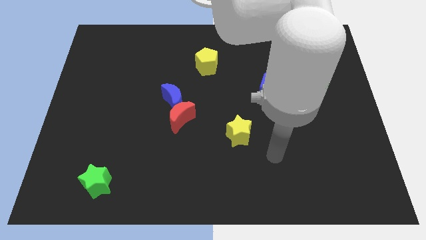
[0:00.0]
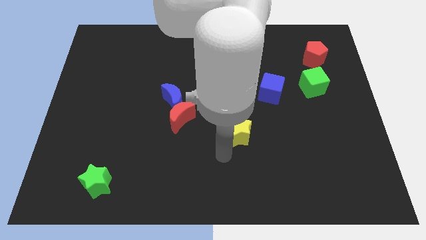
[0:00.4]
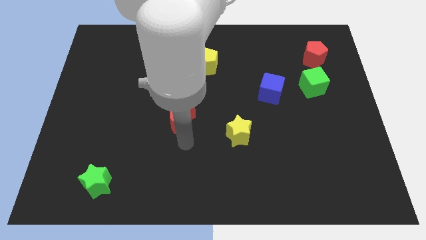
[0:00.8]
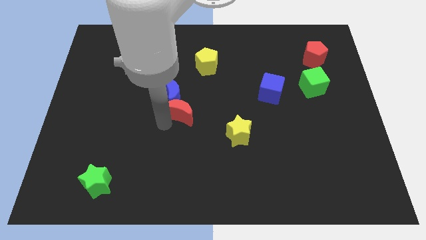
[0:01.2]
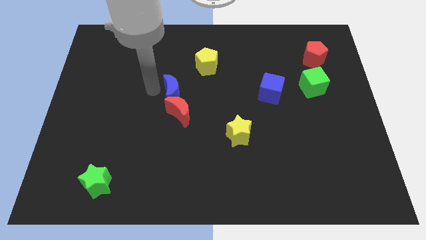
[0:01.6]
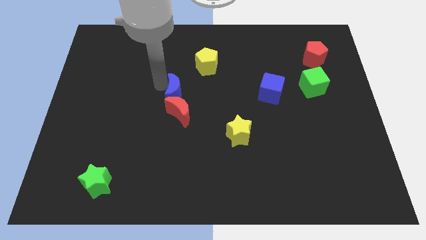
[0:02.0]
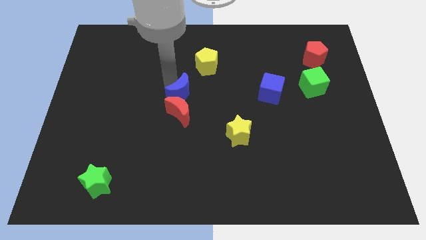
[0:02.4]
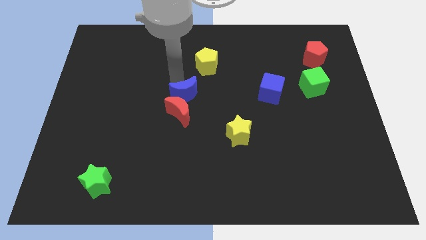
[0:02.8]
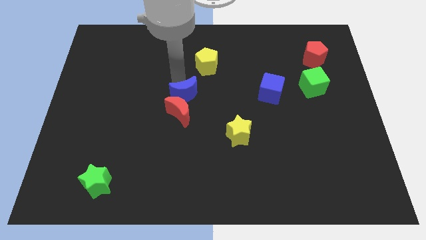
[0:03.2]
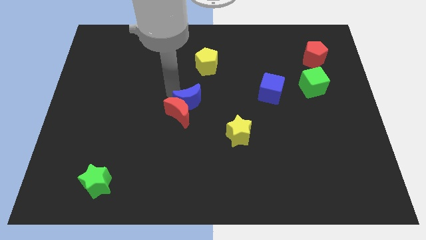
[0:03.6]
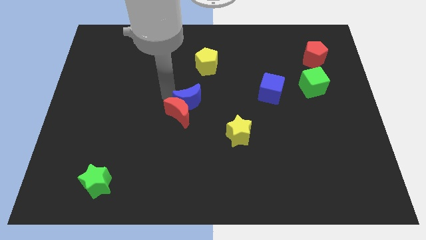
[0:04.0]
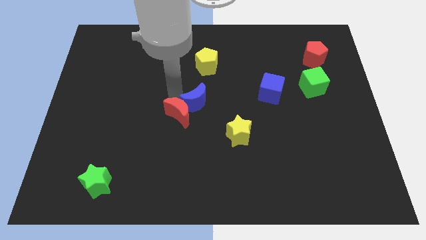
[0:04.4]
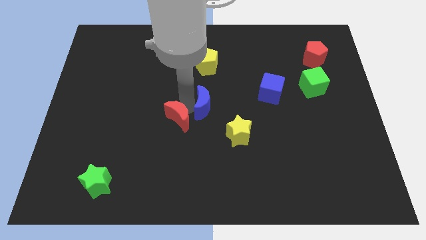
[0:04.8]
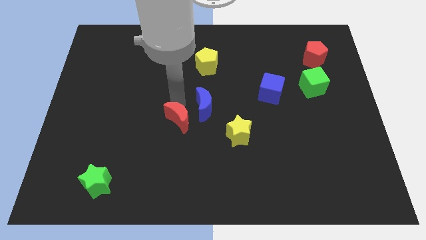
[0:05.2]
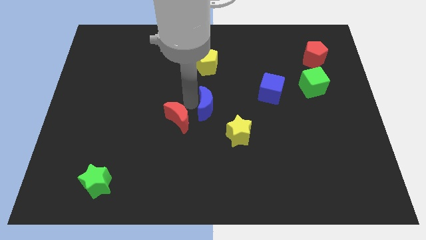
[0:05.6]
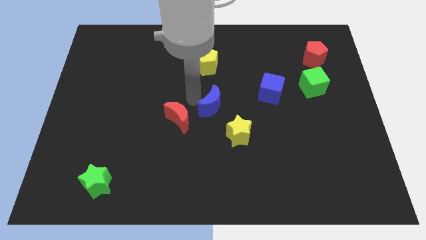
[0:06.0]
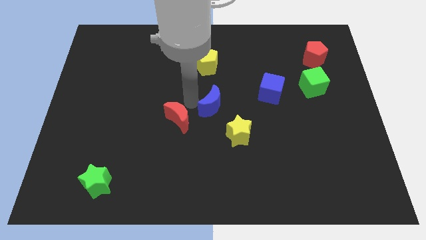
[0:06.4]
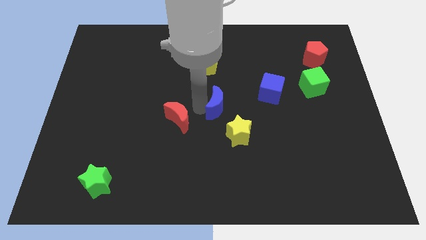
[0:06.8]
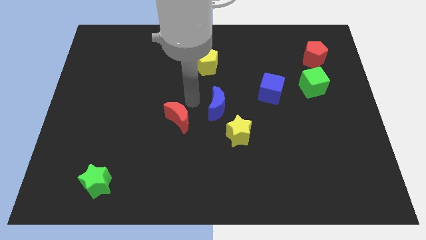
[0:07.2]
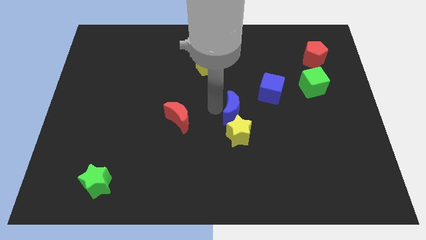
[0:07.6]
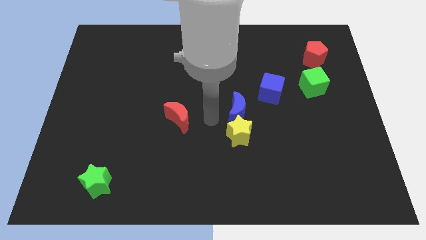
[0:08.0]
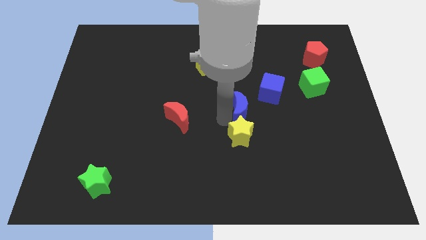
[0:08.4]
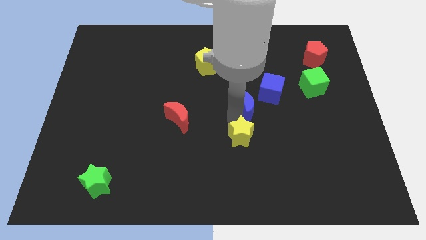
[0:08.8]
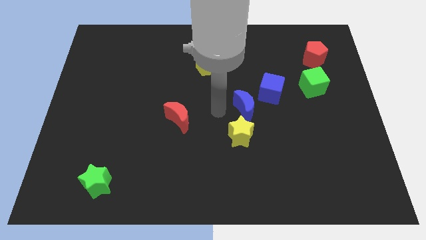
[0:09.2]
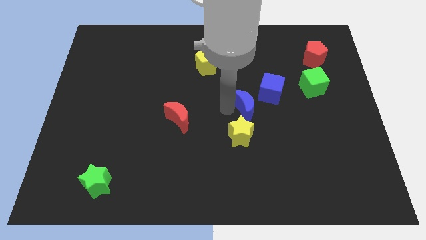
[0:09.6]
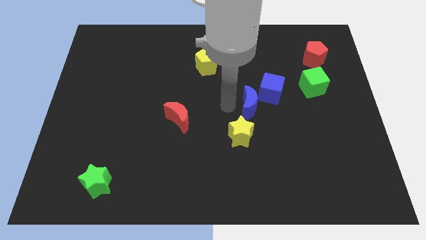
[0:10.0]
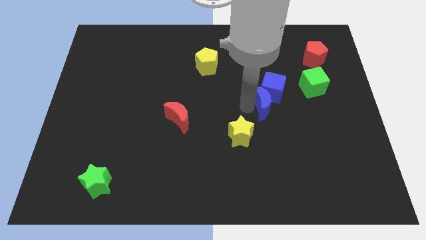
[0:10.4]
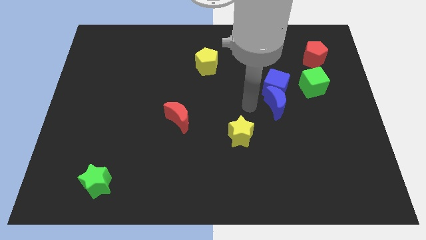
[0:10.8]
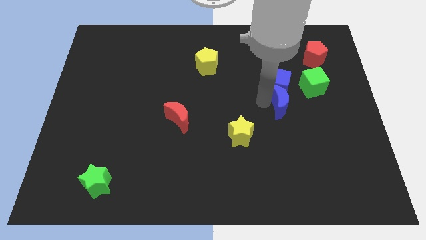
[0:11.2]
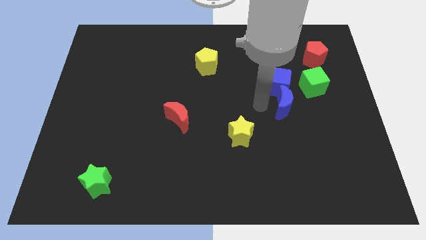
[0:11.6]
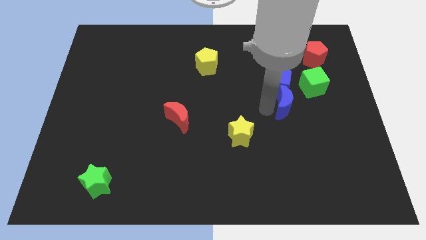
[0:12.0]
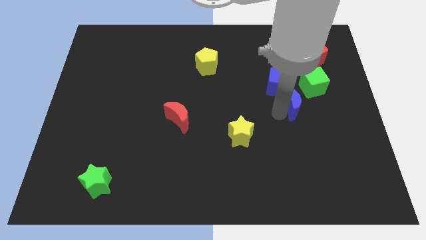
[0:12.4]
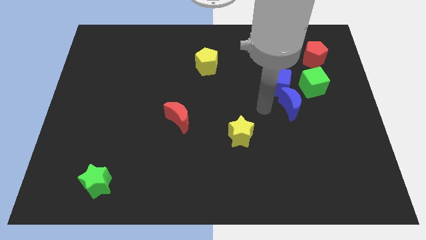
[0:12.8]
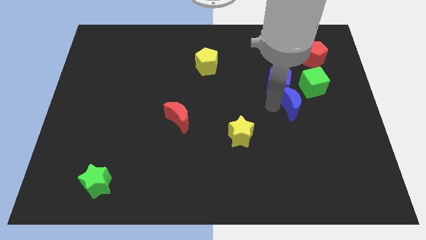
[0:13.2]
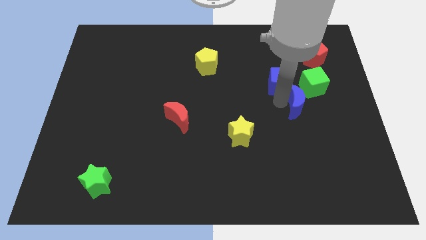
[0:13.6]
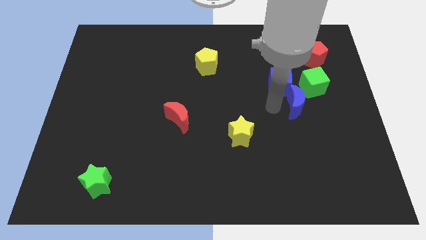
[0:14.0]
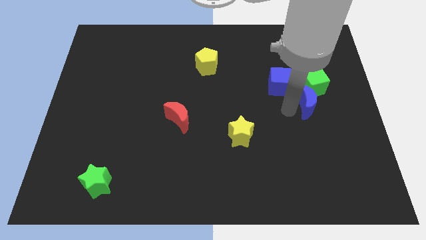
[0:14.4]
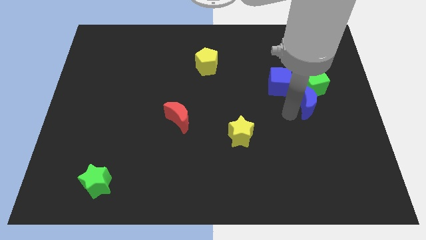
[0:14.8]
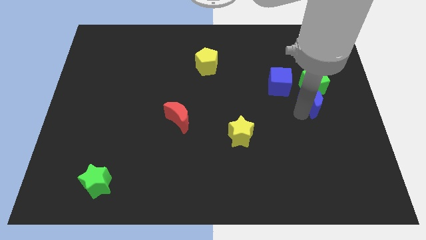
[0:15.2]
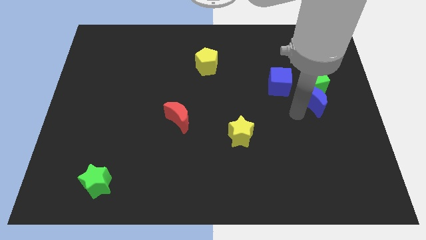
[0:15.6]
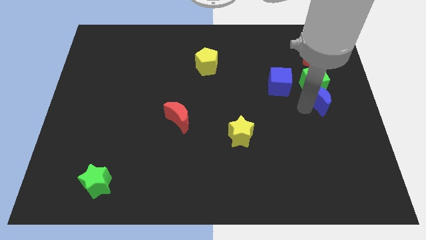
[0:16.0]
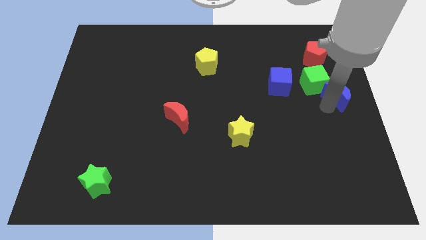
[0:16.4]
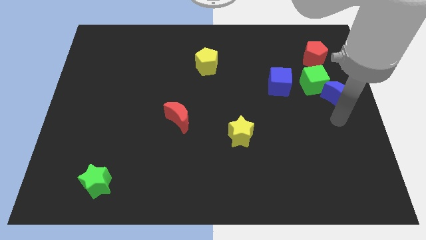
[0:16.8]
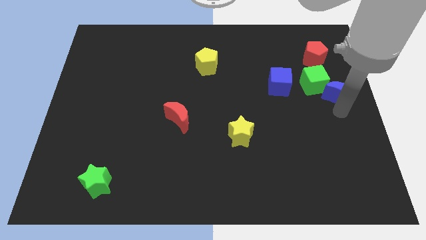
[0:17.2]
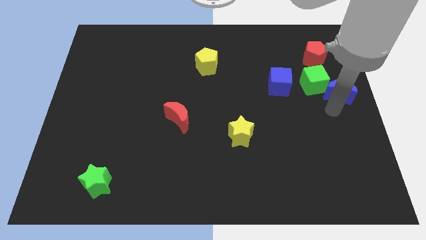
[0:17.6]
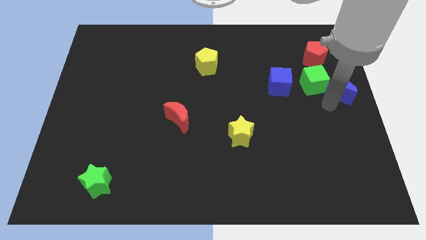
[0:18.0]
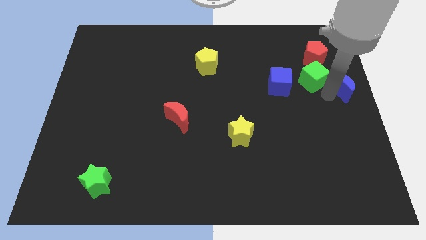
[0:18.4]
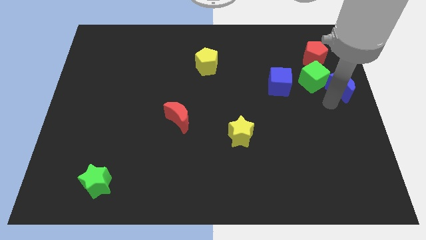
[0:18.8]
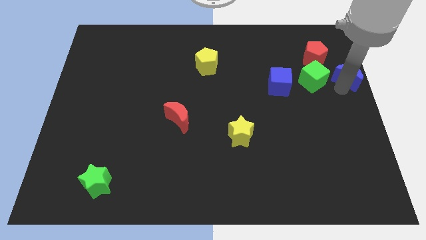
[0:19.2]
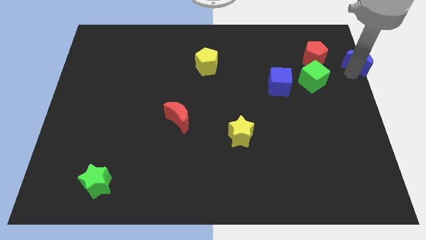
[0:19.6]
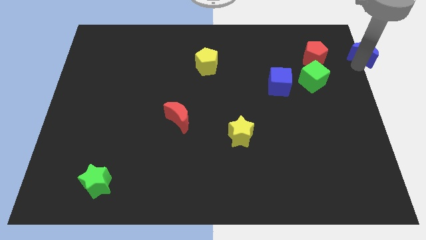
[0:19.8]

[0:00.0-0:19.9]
move the blue moon to the upper right corner

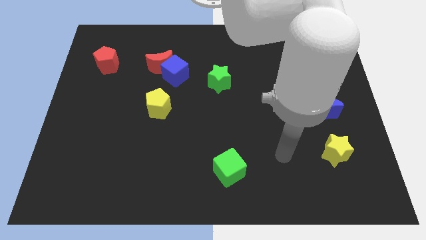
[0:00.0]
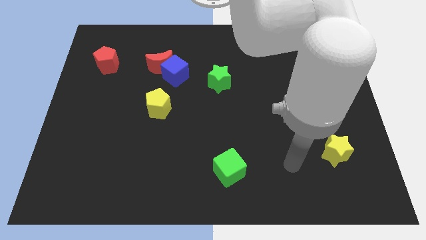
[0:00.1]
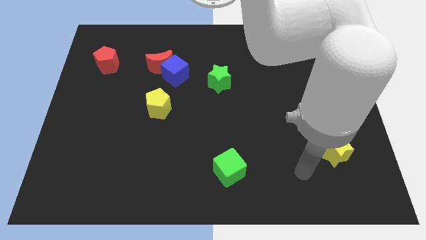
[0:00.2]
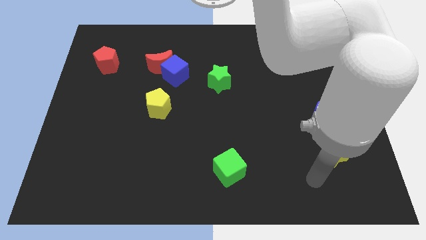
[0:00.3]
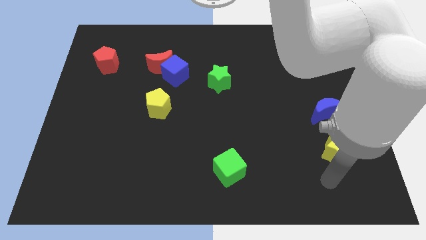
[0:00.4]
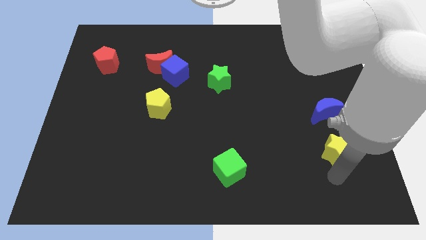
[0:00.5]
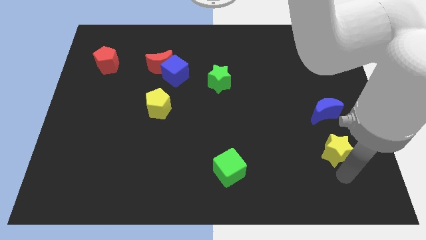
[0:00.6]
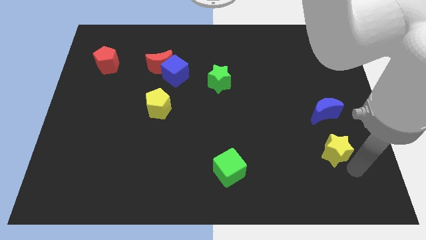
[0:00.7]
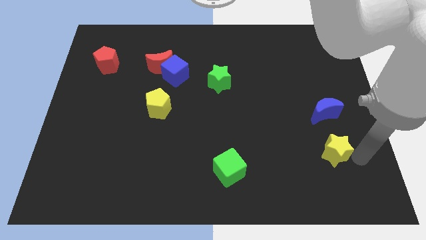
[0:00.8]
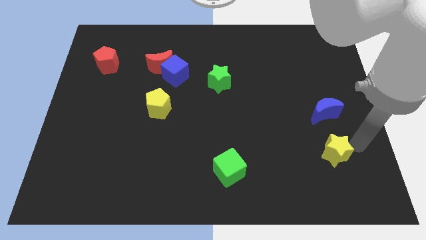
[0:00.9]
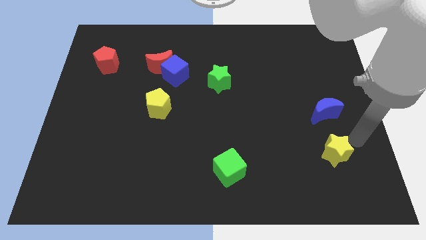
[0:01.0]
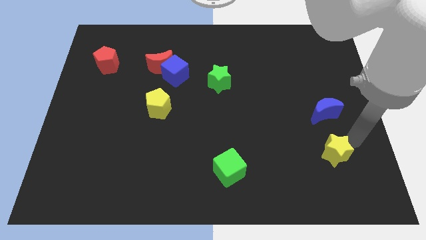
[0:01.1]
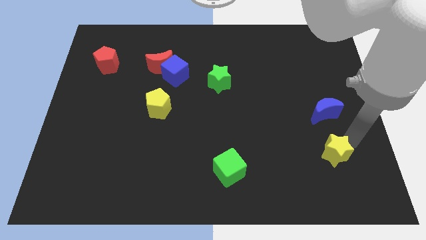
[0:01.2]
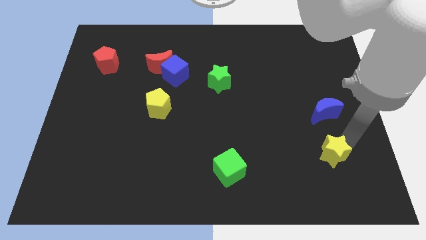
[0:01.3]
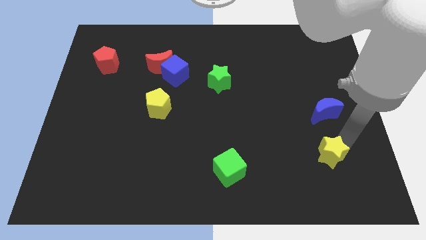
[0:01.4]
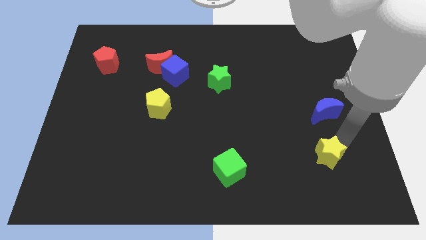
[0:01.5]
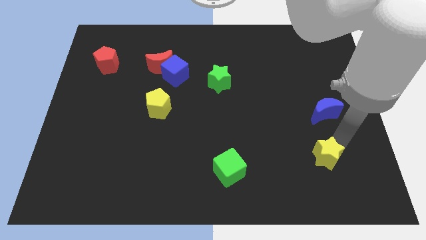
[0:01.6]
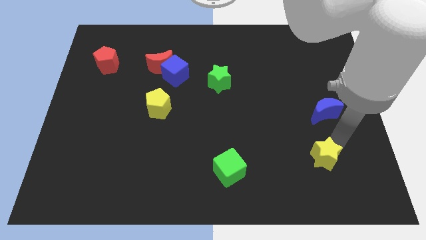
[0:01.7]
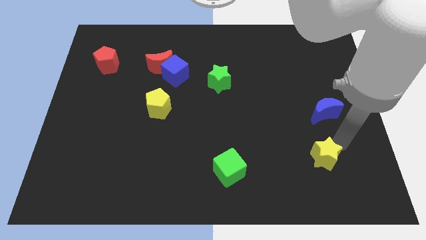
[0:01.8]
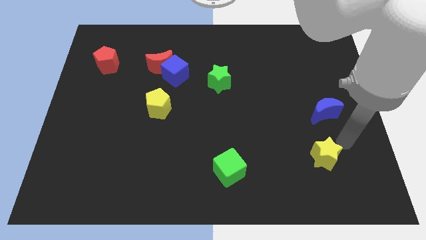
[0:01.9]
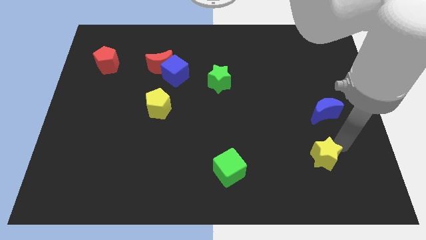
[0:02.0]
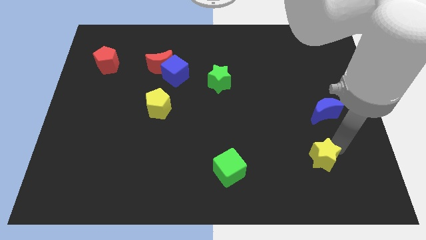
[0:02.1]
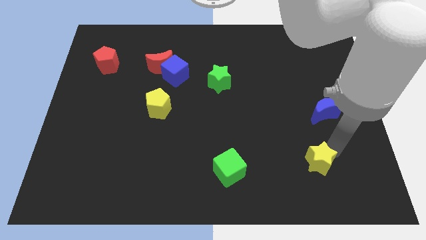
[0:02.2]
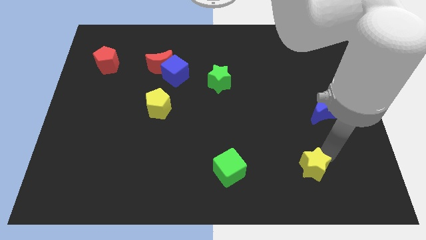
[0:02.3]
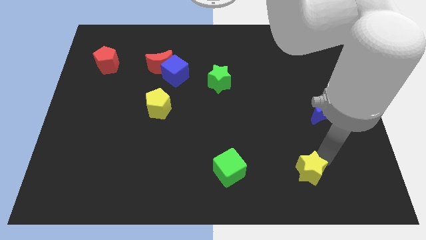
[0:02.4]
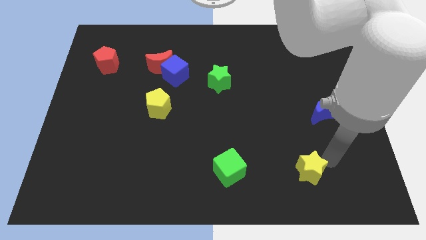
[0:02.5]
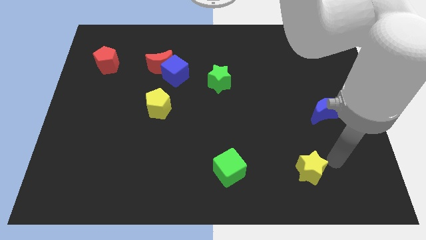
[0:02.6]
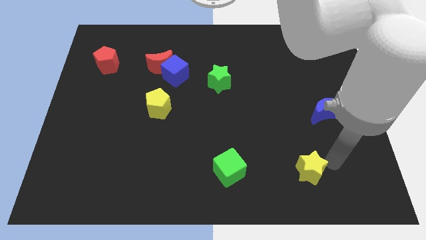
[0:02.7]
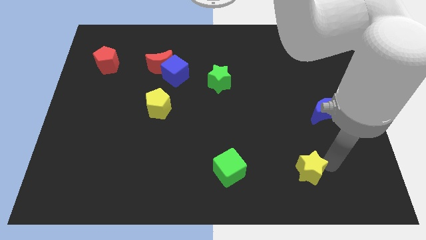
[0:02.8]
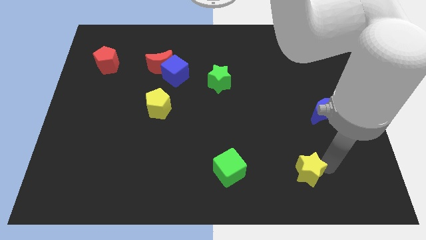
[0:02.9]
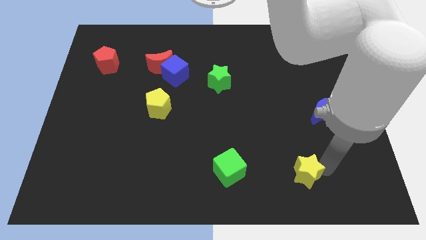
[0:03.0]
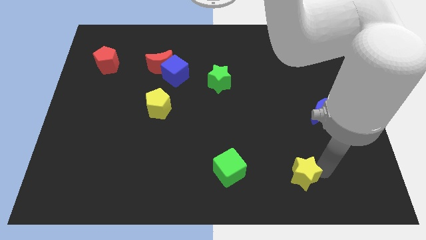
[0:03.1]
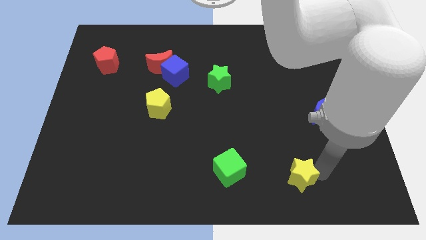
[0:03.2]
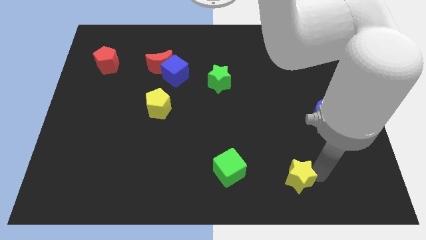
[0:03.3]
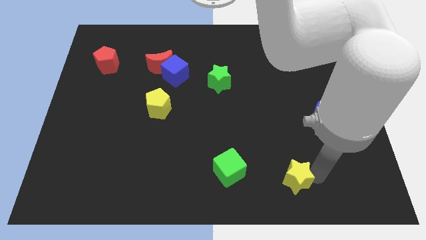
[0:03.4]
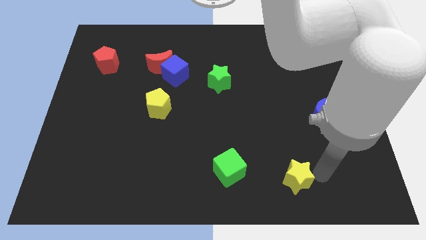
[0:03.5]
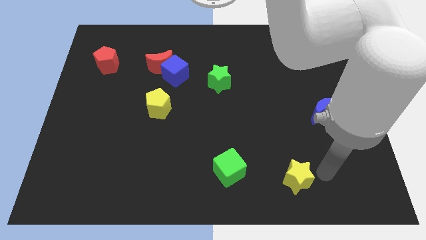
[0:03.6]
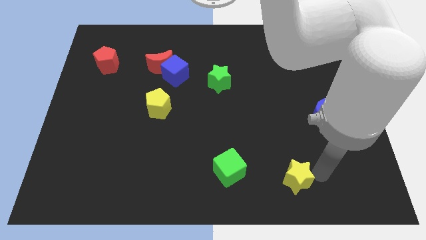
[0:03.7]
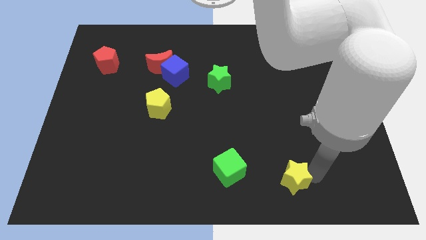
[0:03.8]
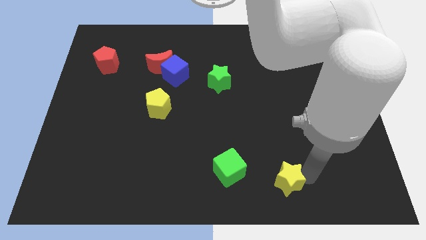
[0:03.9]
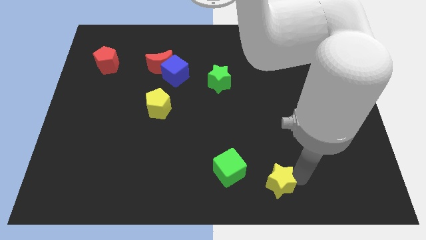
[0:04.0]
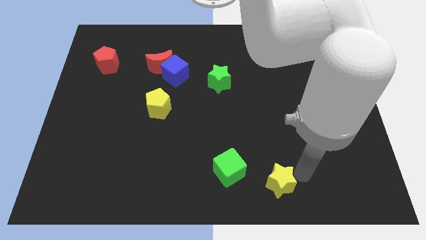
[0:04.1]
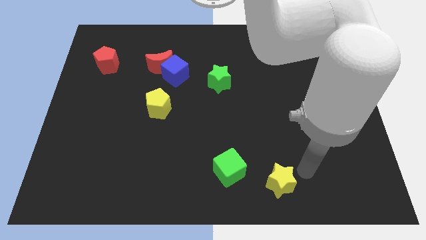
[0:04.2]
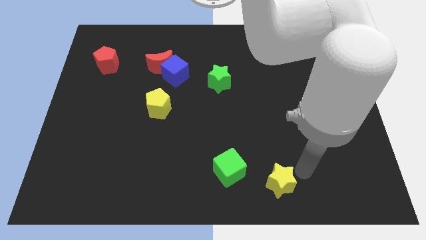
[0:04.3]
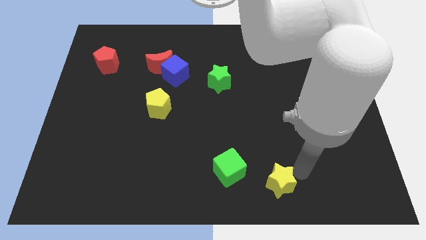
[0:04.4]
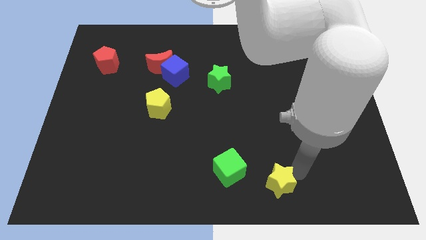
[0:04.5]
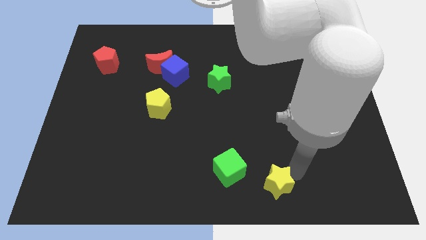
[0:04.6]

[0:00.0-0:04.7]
slide the yellow star to the bottom side
